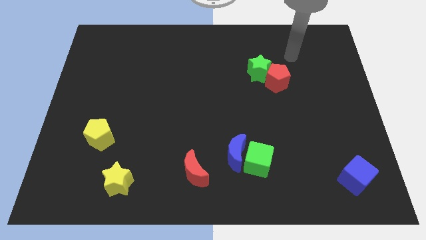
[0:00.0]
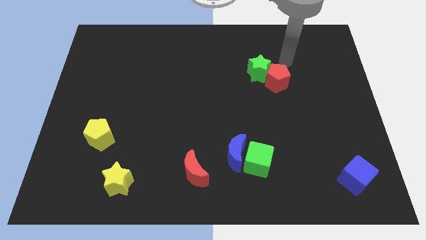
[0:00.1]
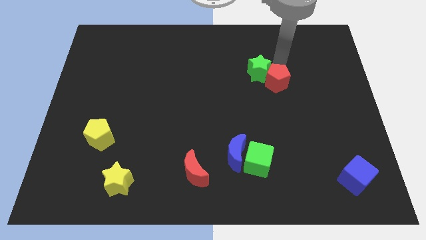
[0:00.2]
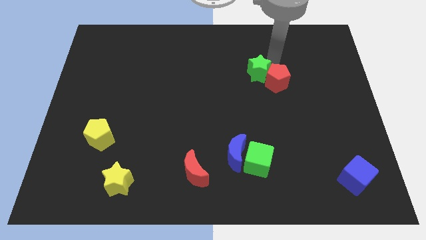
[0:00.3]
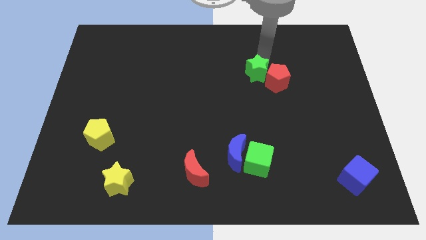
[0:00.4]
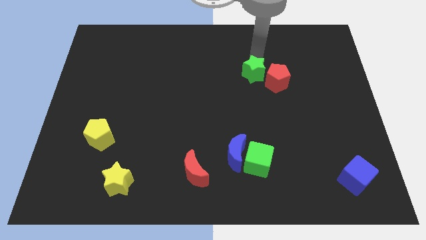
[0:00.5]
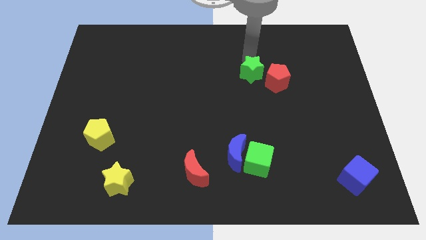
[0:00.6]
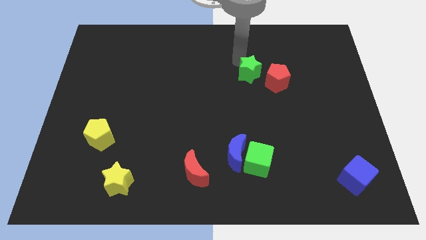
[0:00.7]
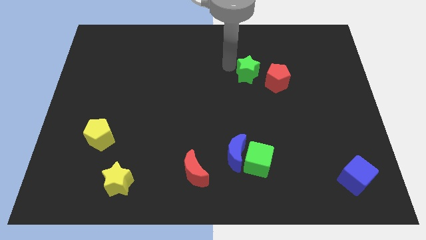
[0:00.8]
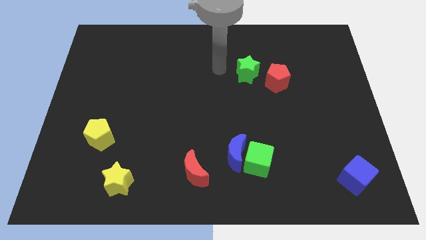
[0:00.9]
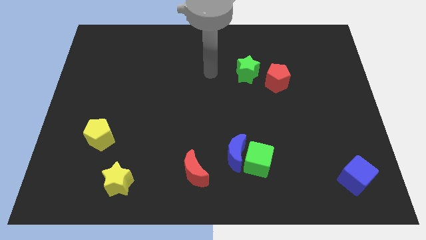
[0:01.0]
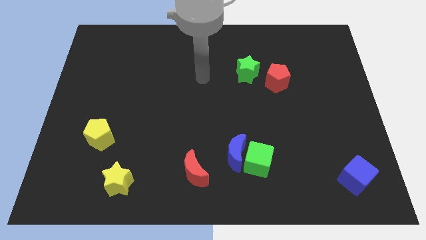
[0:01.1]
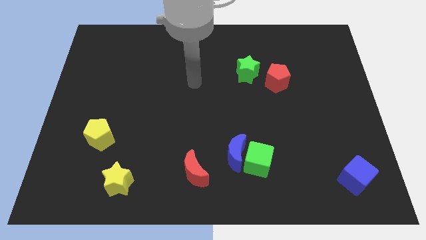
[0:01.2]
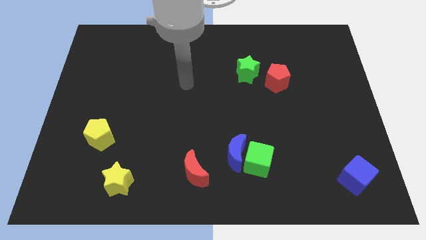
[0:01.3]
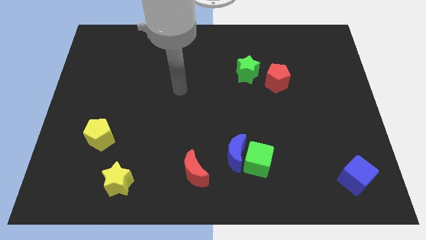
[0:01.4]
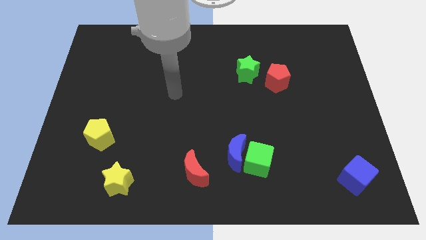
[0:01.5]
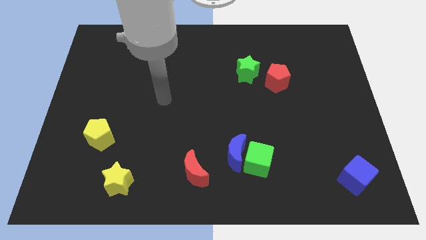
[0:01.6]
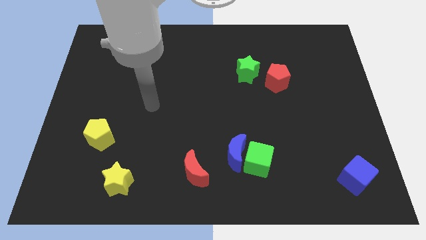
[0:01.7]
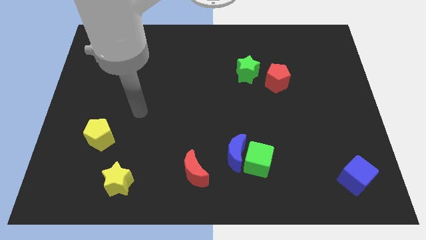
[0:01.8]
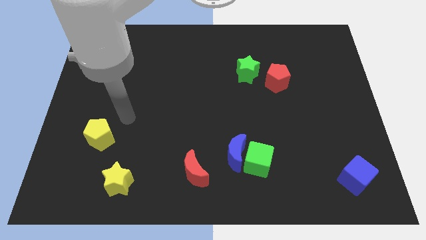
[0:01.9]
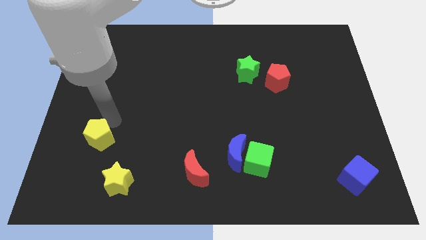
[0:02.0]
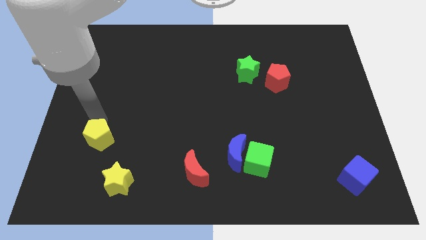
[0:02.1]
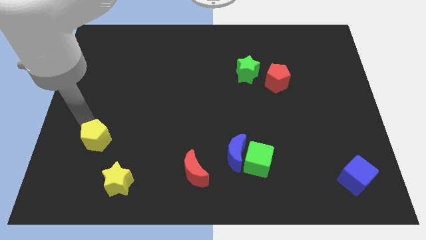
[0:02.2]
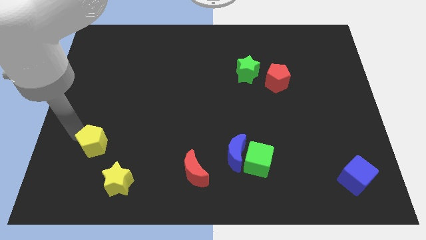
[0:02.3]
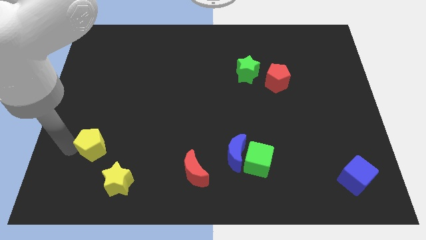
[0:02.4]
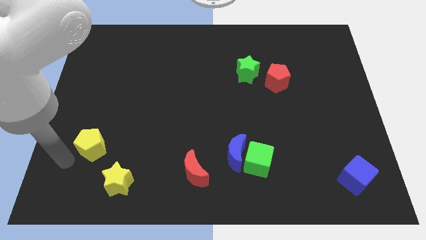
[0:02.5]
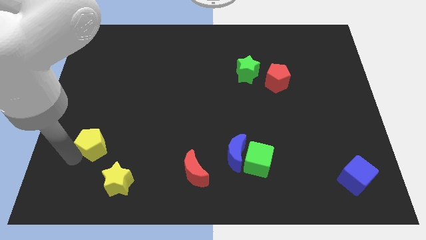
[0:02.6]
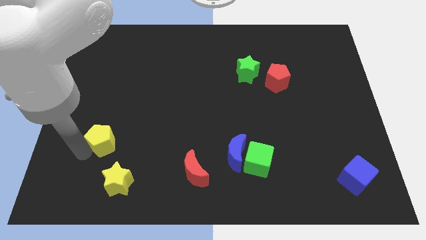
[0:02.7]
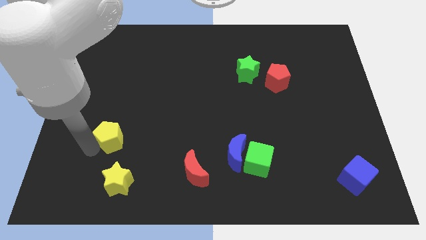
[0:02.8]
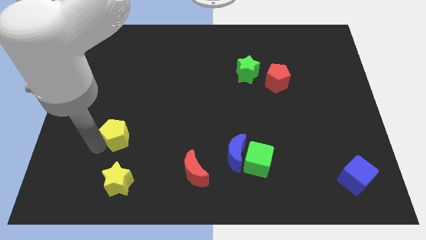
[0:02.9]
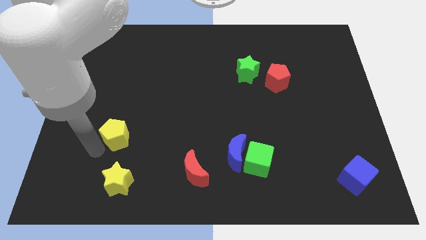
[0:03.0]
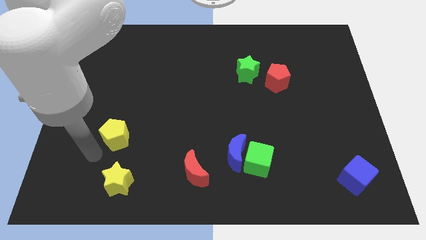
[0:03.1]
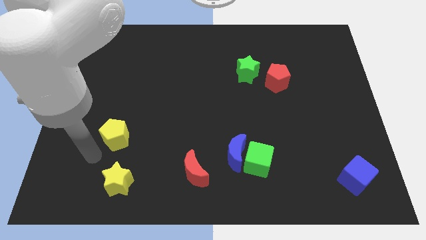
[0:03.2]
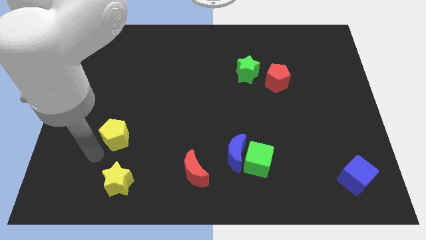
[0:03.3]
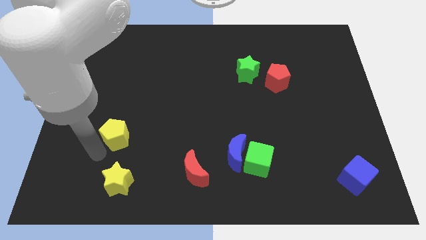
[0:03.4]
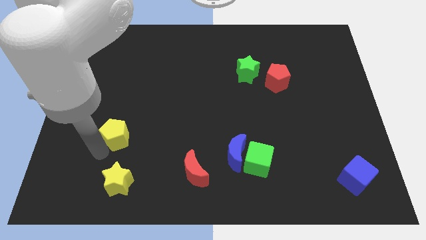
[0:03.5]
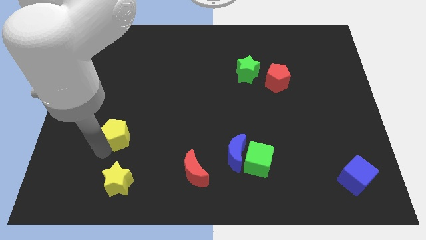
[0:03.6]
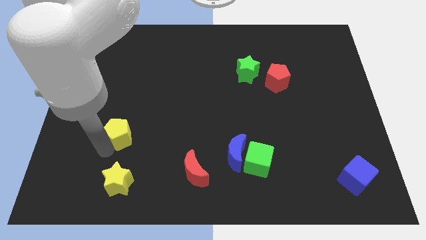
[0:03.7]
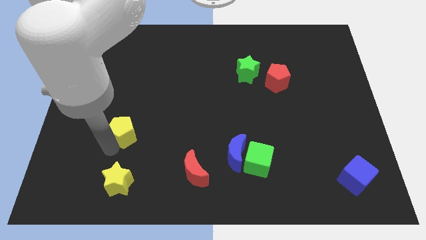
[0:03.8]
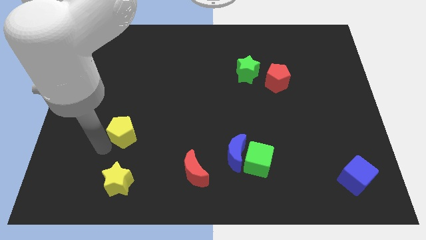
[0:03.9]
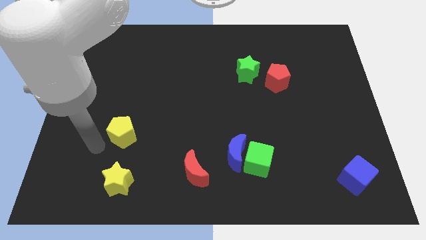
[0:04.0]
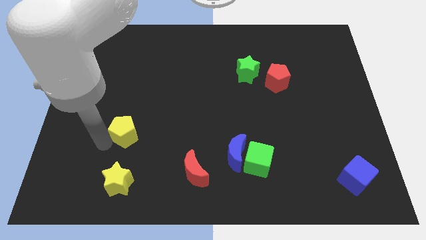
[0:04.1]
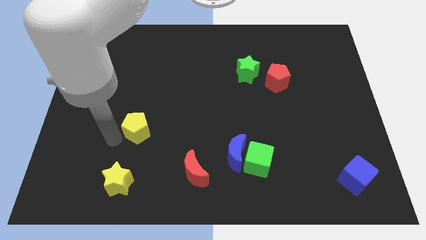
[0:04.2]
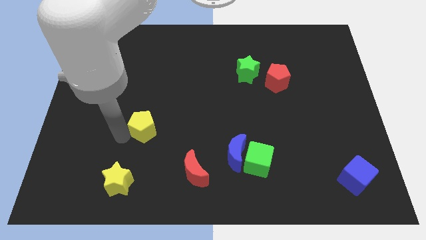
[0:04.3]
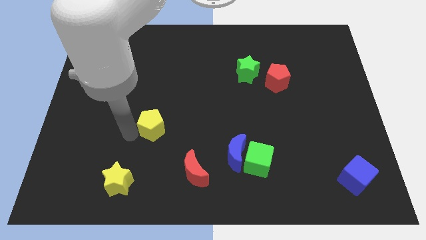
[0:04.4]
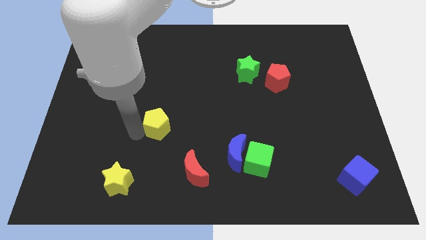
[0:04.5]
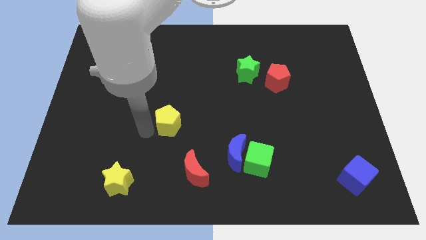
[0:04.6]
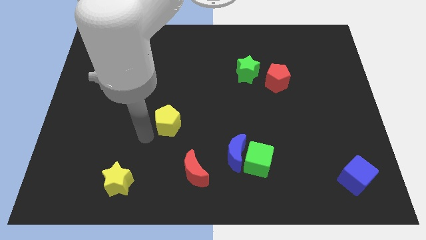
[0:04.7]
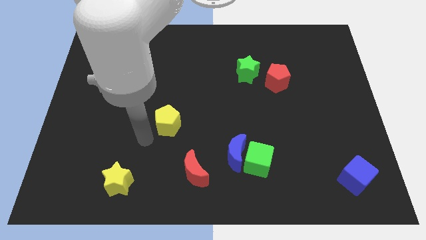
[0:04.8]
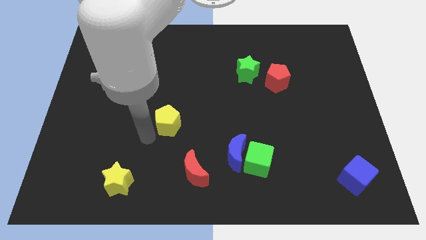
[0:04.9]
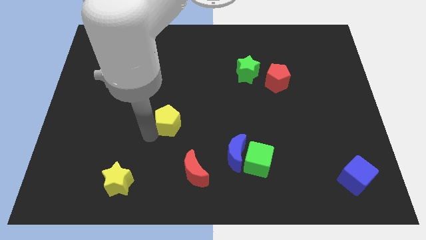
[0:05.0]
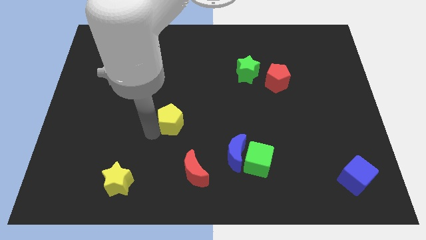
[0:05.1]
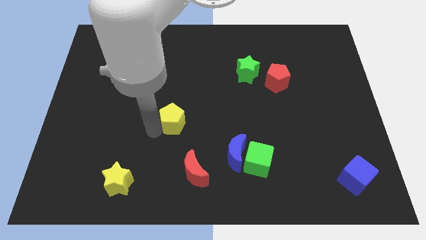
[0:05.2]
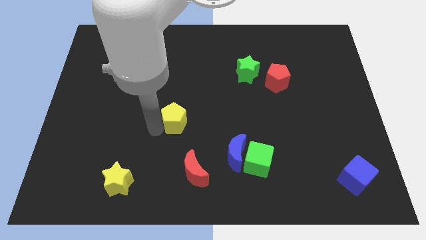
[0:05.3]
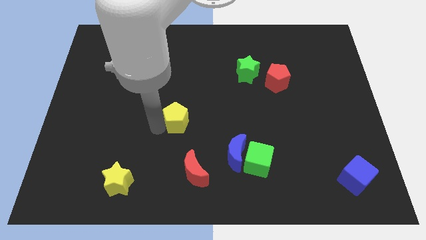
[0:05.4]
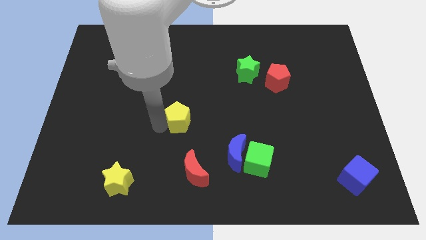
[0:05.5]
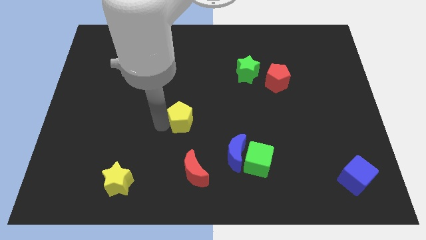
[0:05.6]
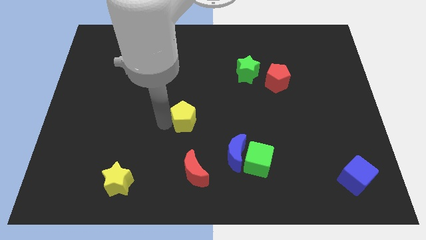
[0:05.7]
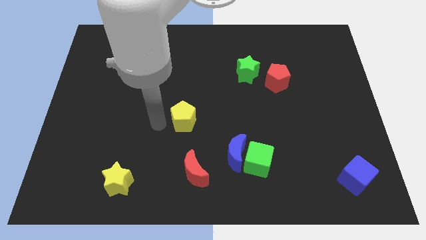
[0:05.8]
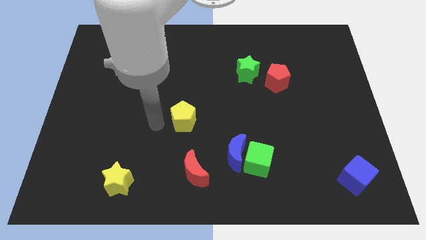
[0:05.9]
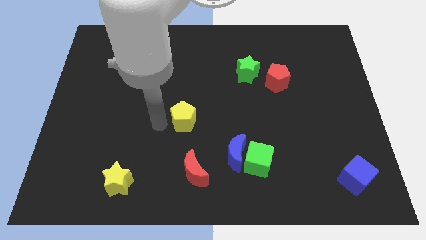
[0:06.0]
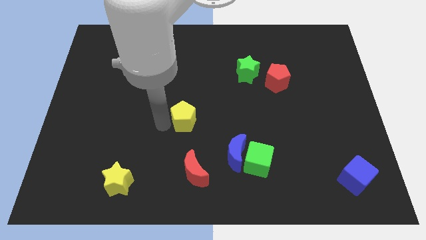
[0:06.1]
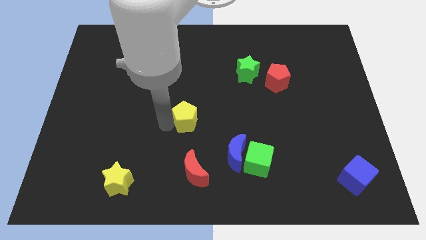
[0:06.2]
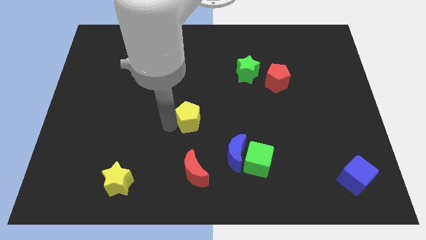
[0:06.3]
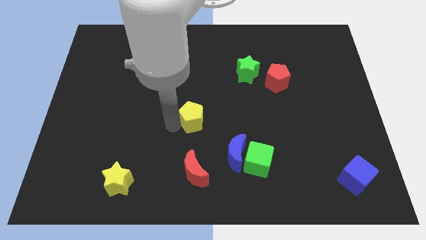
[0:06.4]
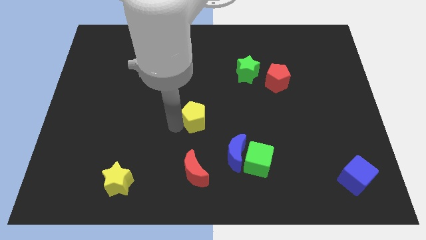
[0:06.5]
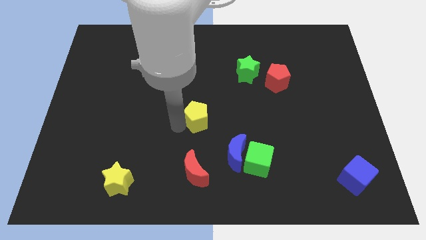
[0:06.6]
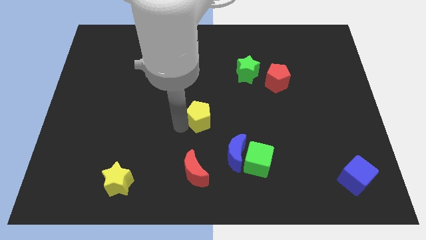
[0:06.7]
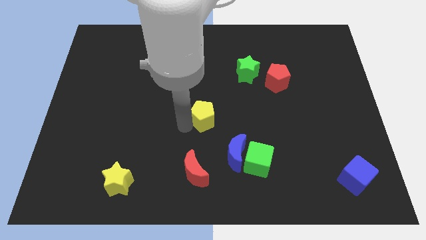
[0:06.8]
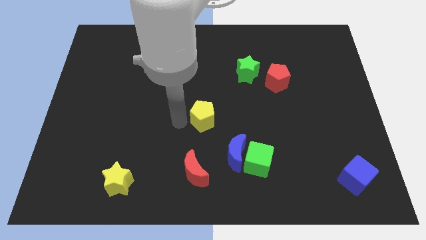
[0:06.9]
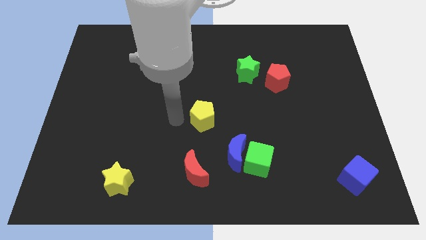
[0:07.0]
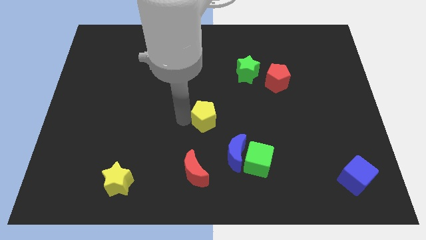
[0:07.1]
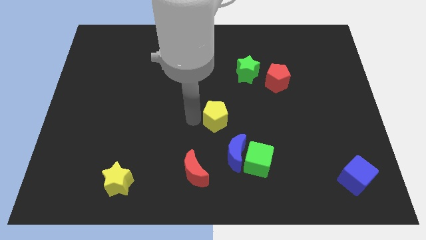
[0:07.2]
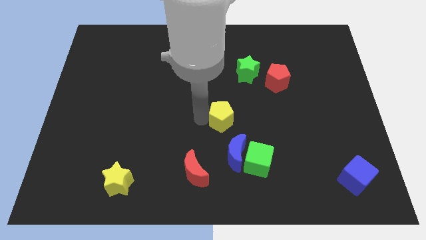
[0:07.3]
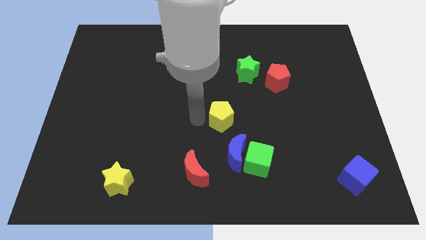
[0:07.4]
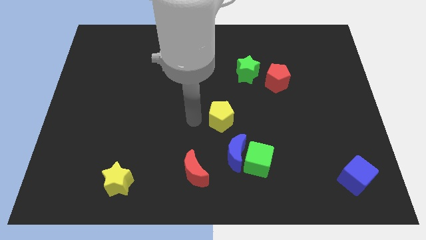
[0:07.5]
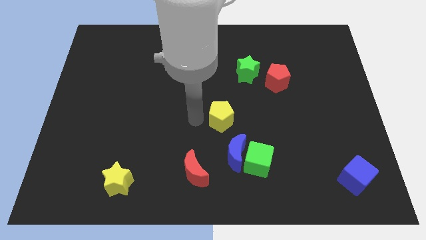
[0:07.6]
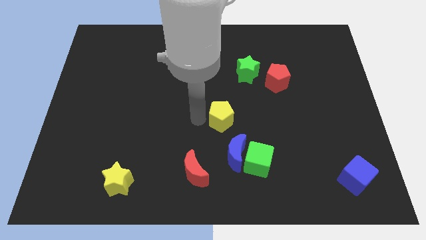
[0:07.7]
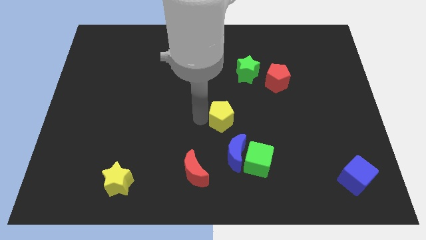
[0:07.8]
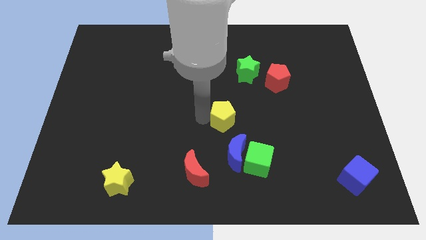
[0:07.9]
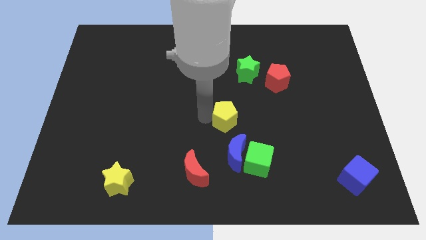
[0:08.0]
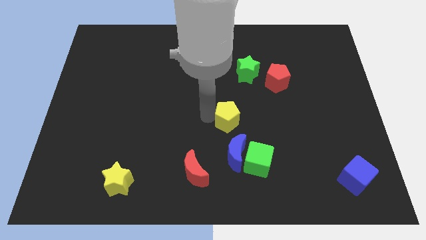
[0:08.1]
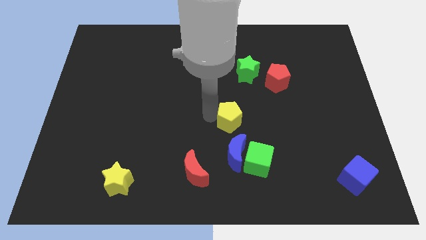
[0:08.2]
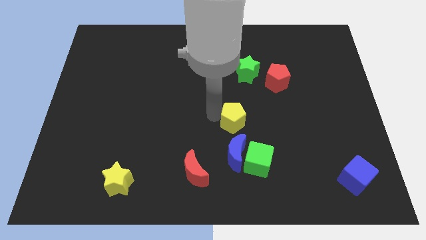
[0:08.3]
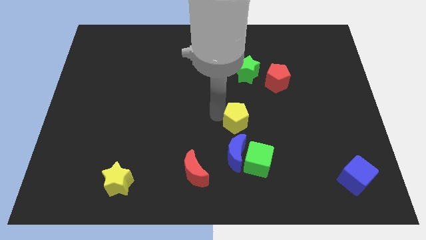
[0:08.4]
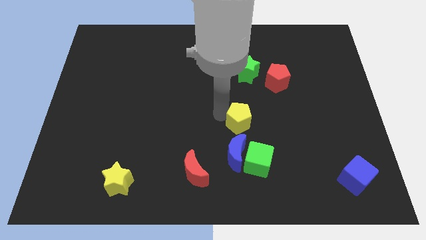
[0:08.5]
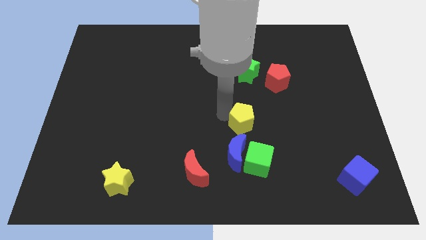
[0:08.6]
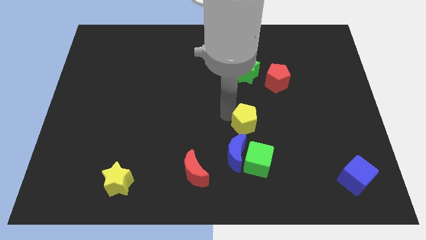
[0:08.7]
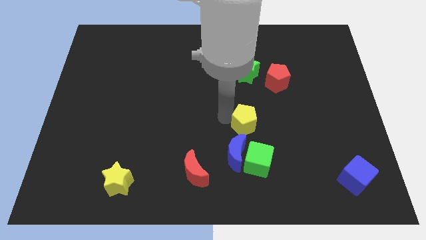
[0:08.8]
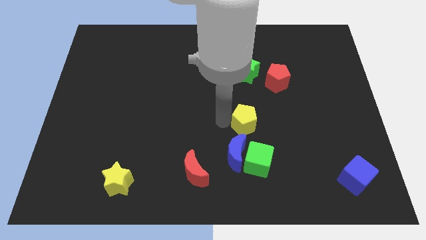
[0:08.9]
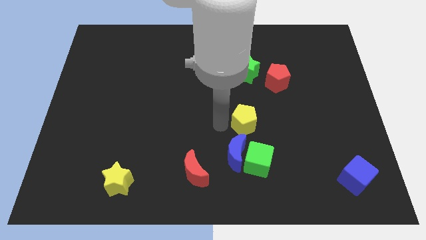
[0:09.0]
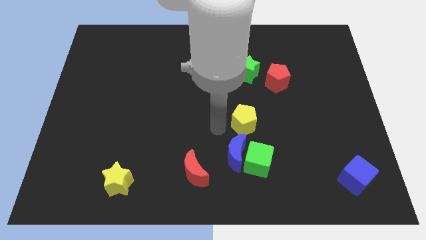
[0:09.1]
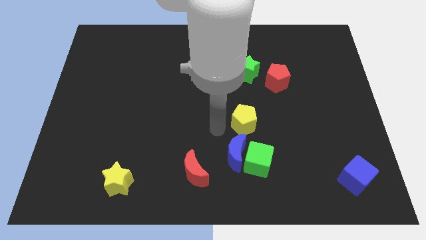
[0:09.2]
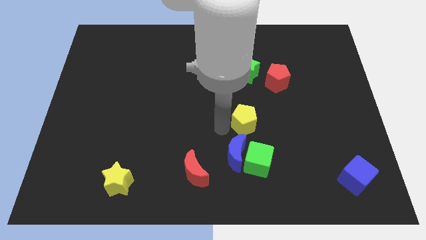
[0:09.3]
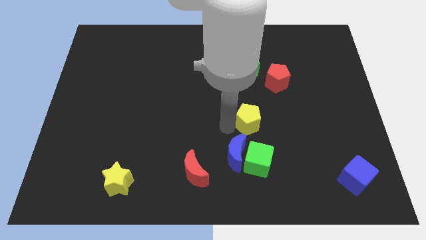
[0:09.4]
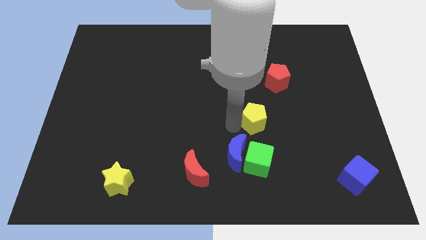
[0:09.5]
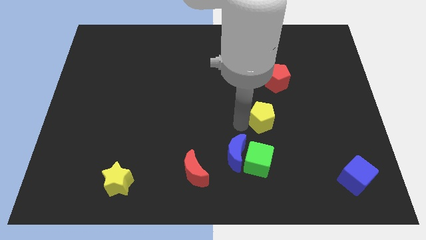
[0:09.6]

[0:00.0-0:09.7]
push the yellow pentagon to the bottom of the red pentagon
